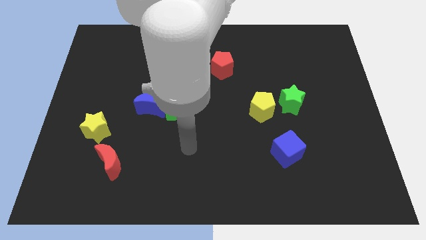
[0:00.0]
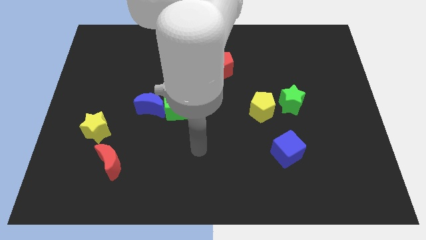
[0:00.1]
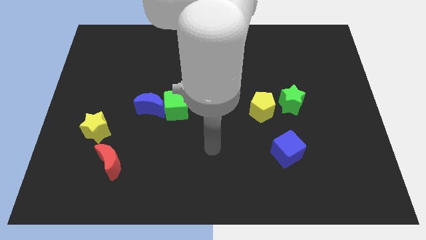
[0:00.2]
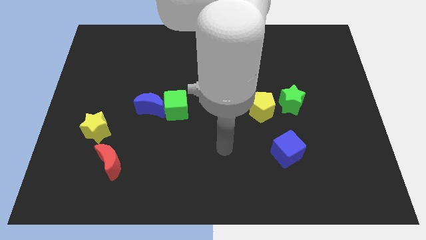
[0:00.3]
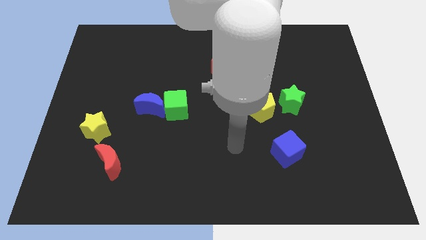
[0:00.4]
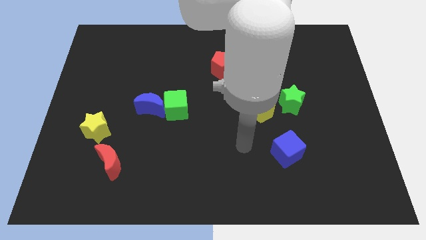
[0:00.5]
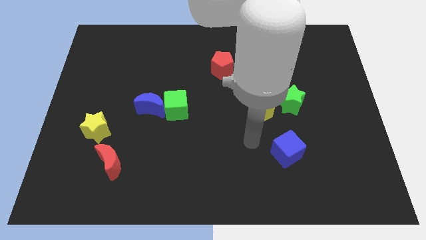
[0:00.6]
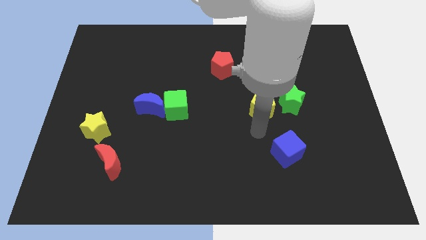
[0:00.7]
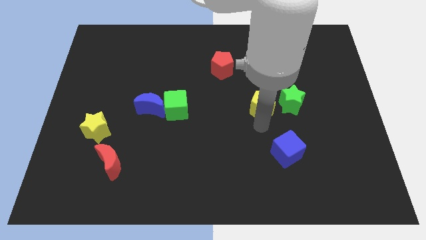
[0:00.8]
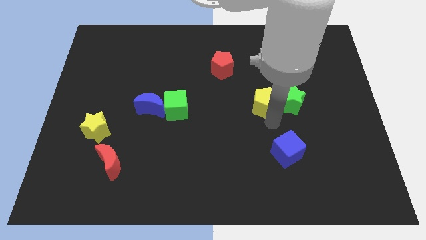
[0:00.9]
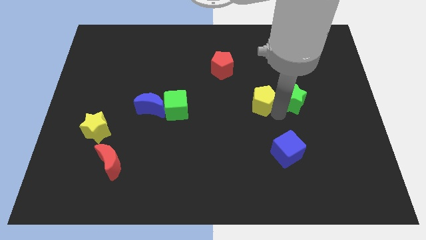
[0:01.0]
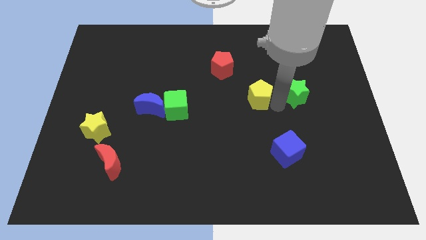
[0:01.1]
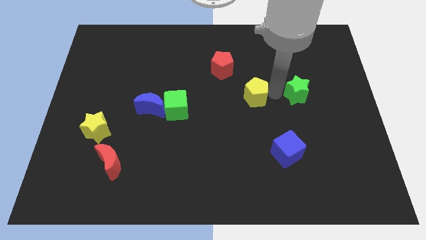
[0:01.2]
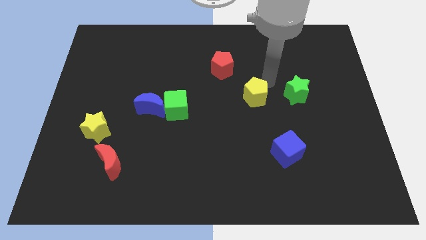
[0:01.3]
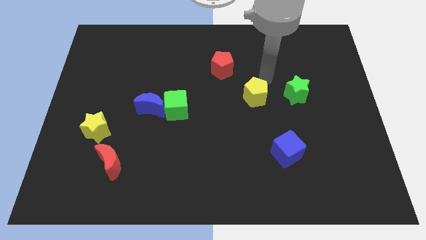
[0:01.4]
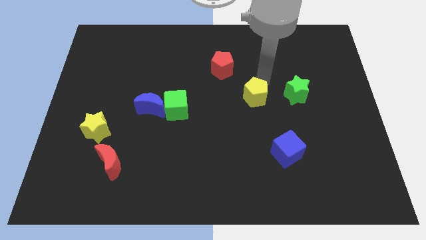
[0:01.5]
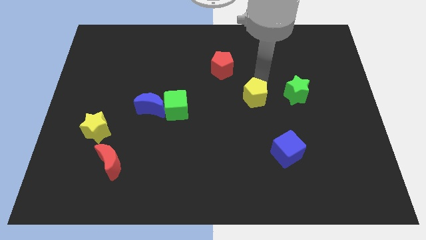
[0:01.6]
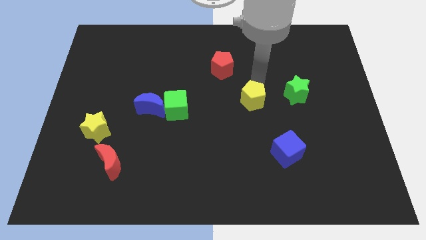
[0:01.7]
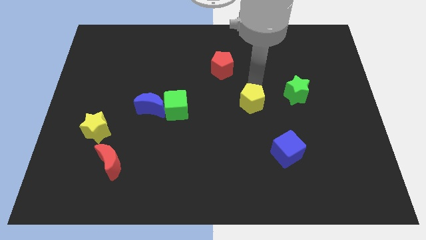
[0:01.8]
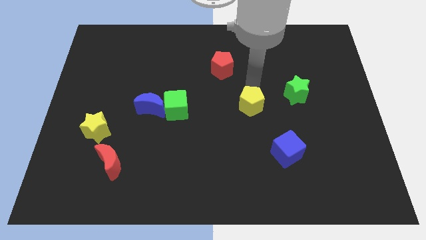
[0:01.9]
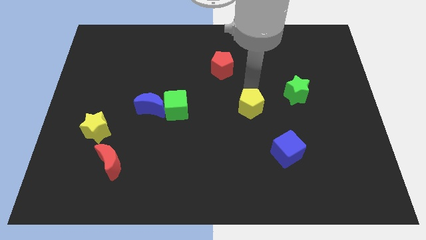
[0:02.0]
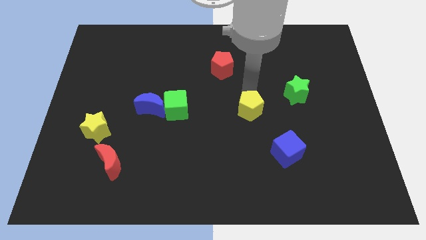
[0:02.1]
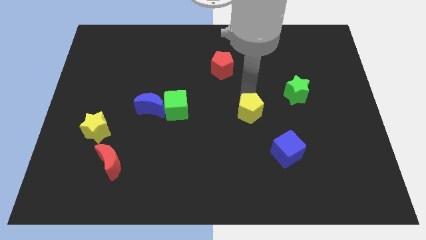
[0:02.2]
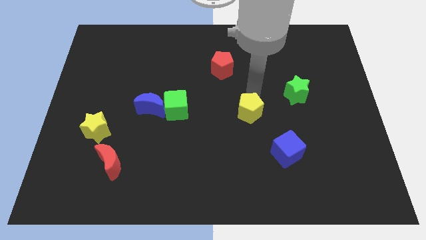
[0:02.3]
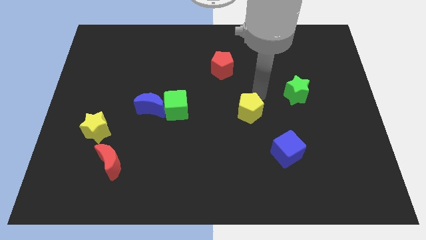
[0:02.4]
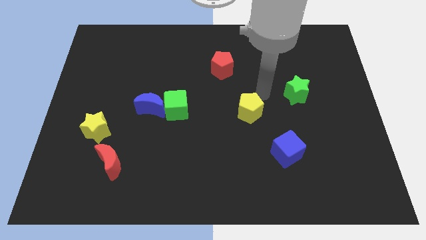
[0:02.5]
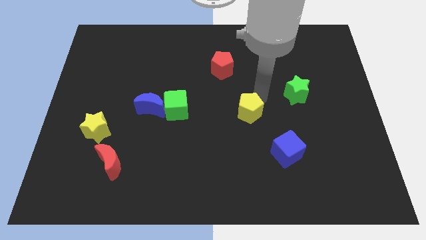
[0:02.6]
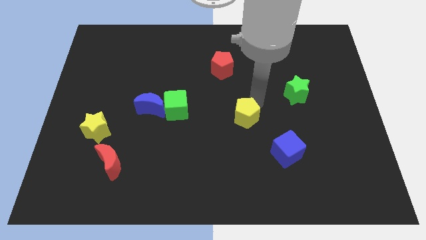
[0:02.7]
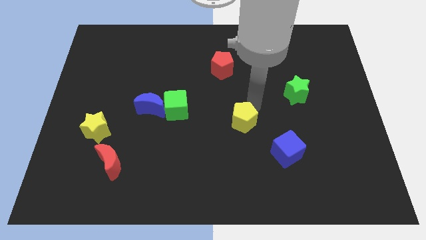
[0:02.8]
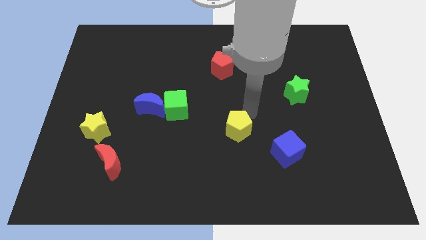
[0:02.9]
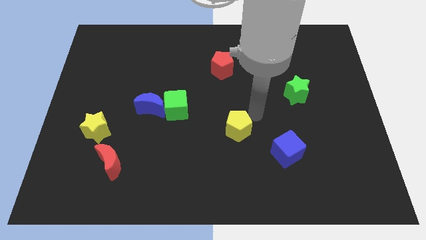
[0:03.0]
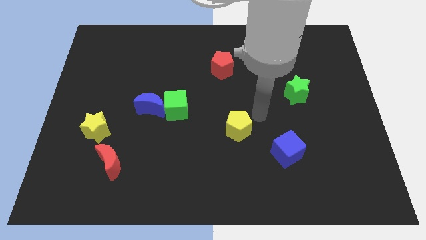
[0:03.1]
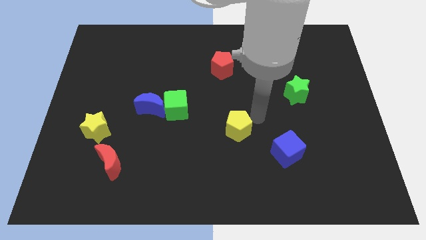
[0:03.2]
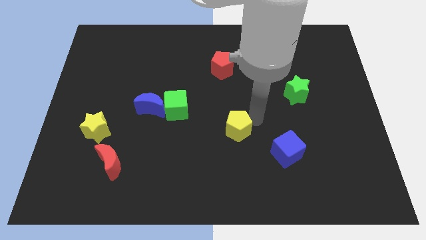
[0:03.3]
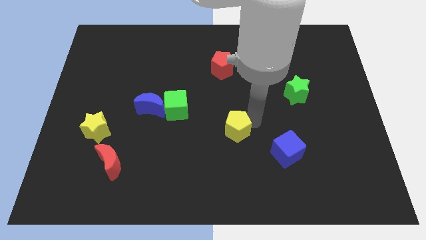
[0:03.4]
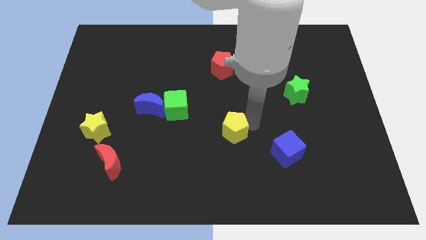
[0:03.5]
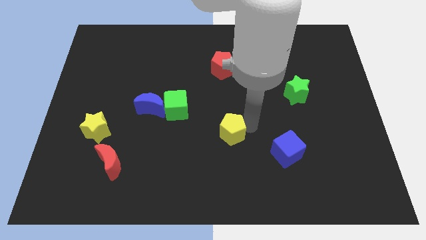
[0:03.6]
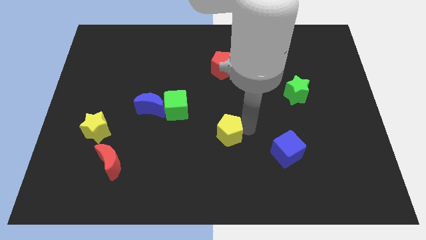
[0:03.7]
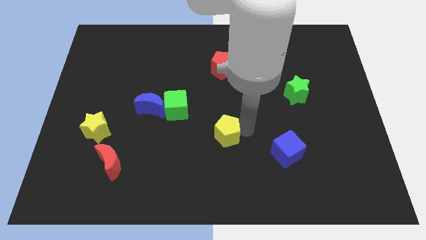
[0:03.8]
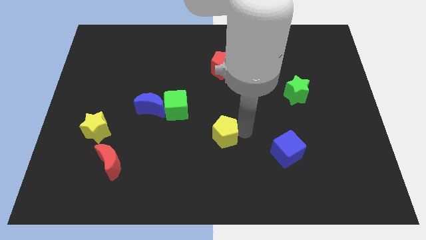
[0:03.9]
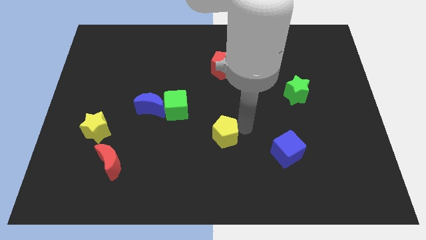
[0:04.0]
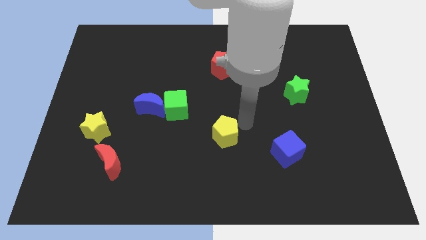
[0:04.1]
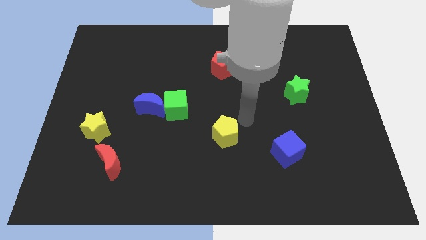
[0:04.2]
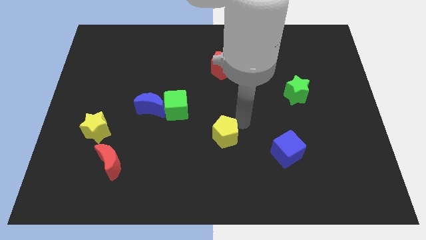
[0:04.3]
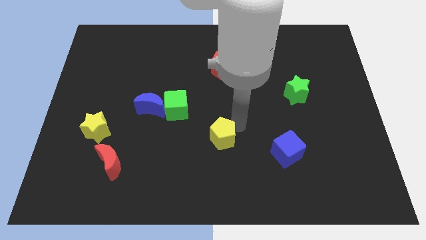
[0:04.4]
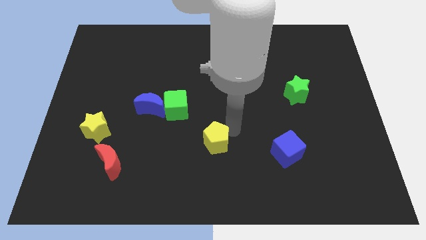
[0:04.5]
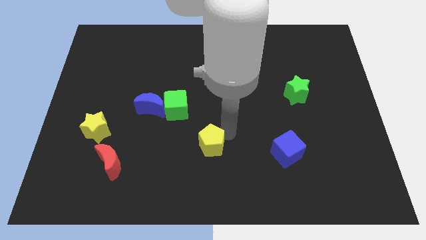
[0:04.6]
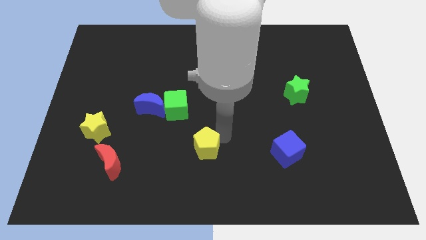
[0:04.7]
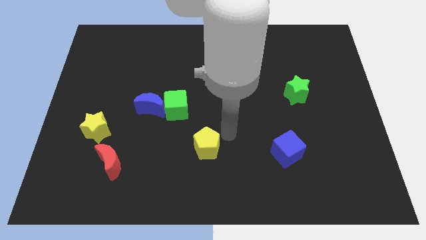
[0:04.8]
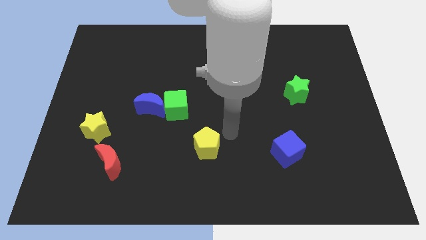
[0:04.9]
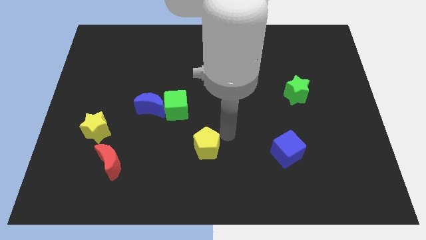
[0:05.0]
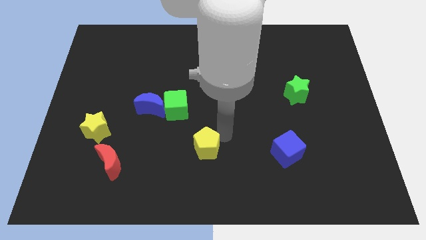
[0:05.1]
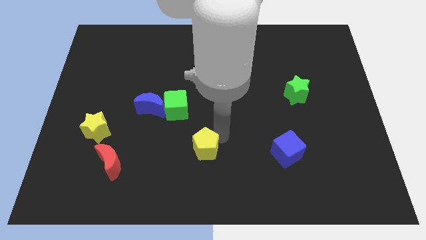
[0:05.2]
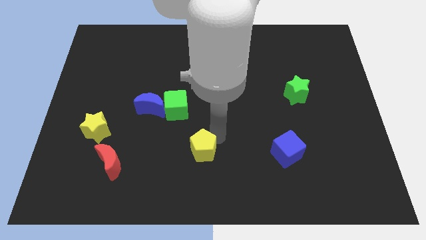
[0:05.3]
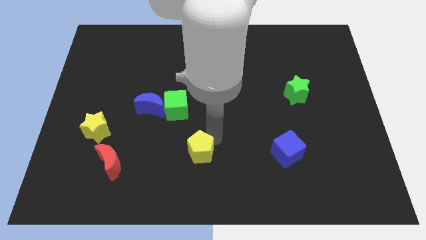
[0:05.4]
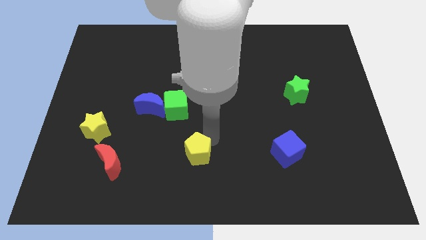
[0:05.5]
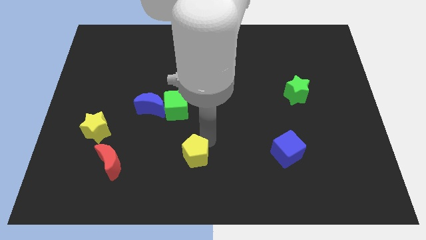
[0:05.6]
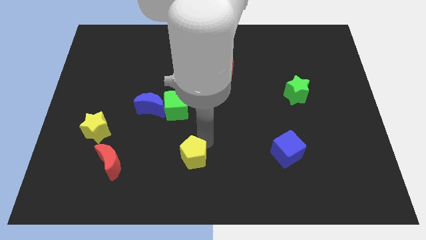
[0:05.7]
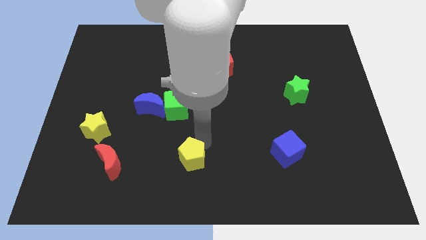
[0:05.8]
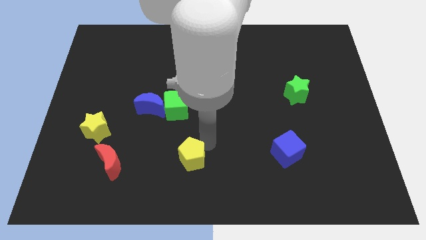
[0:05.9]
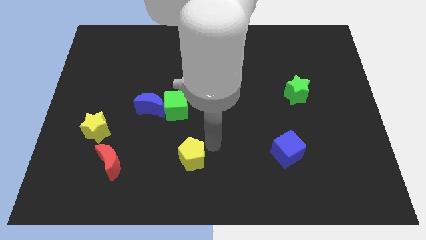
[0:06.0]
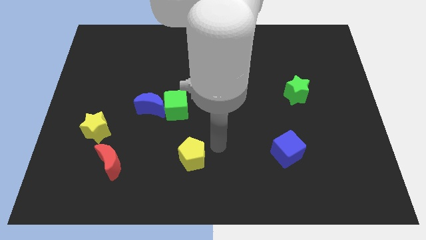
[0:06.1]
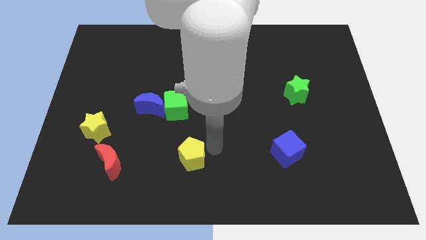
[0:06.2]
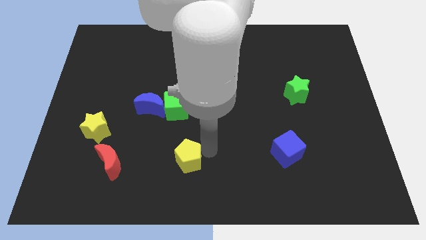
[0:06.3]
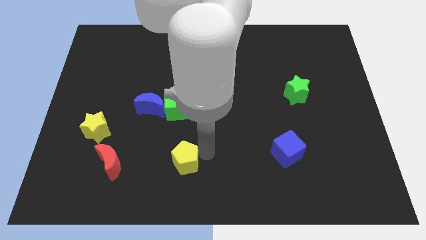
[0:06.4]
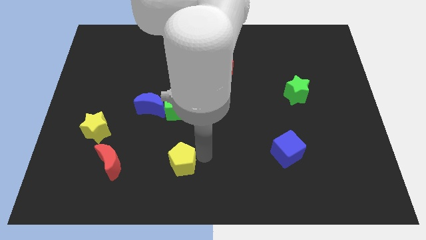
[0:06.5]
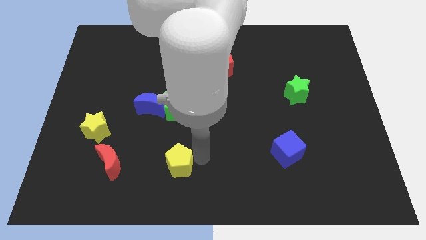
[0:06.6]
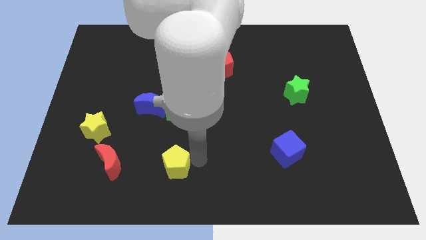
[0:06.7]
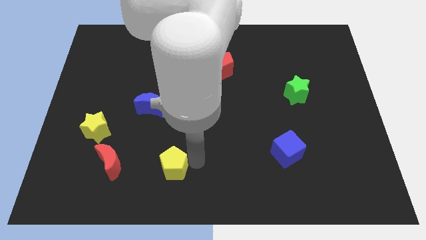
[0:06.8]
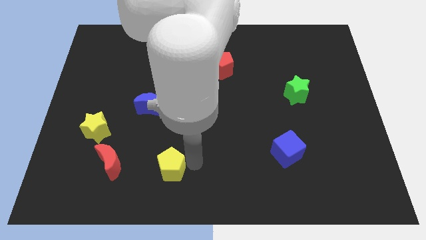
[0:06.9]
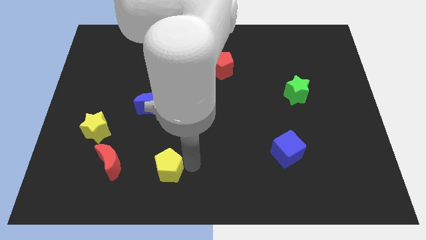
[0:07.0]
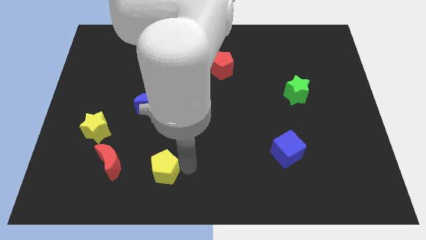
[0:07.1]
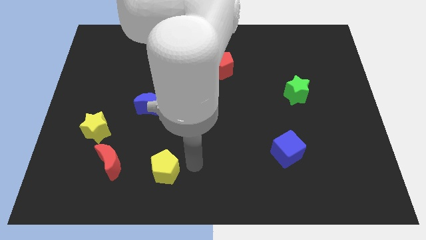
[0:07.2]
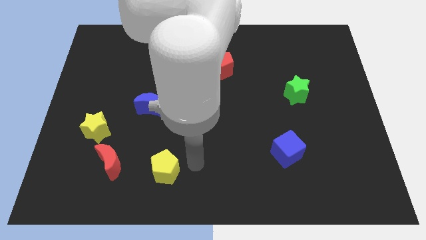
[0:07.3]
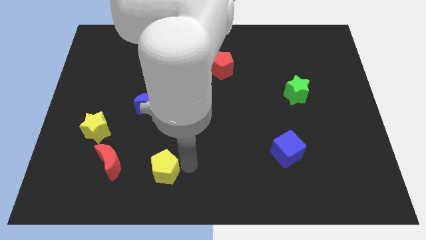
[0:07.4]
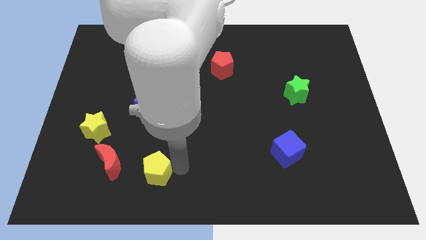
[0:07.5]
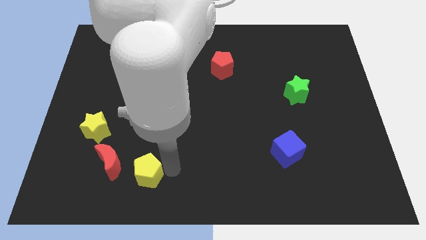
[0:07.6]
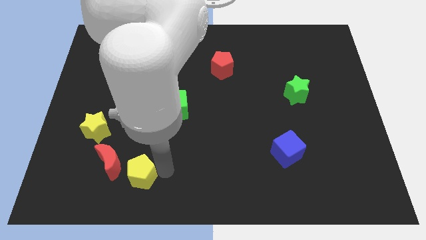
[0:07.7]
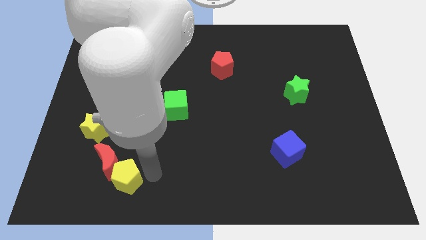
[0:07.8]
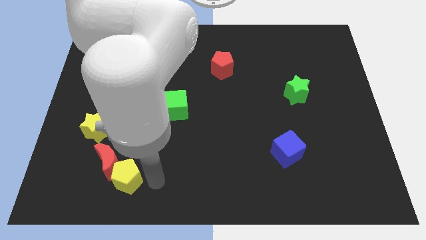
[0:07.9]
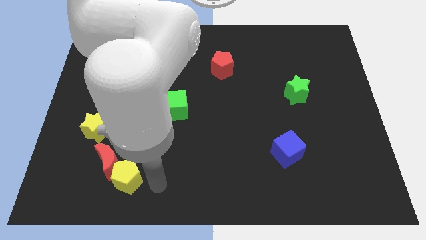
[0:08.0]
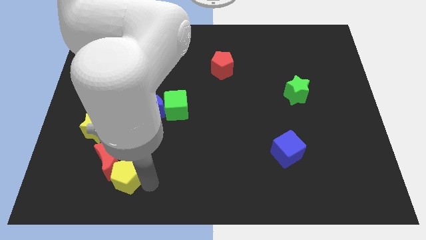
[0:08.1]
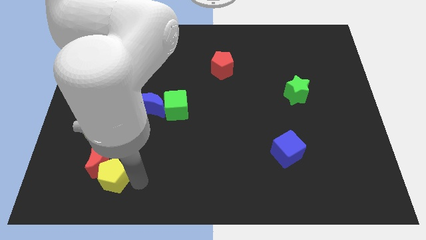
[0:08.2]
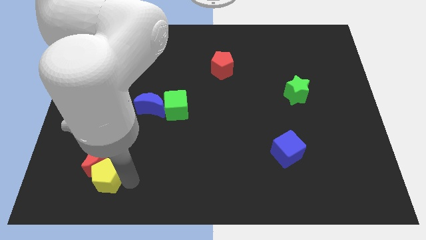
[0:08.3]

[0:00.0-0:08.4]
push the yellow pentagon below the yellow star
